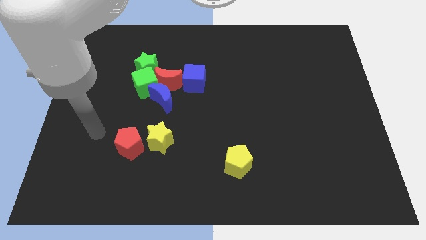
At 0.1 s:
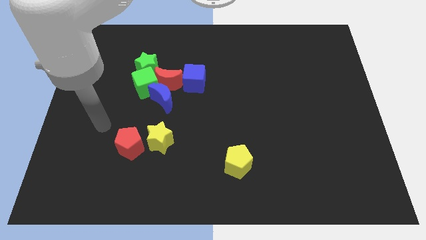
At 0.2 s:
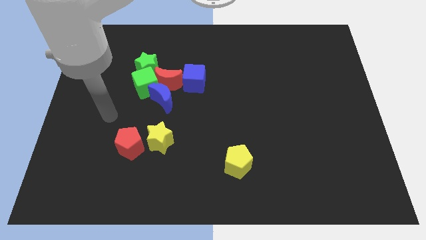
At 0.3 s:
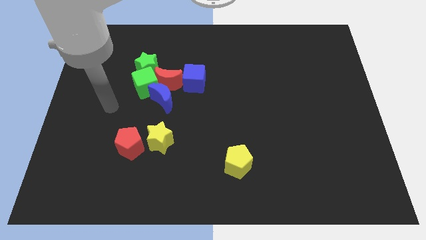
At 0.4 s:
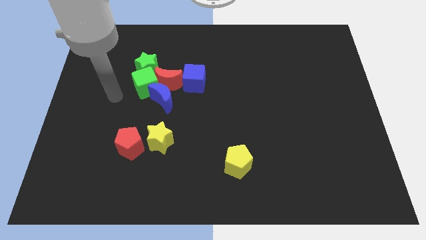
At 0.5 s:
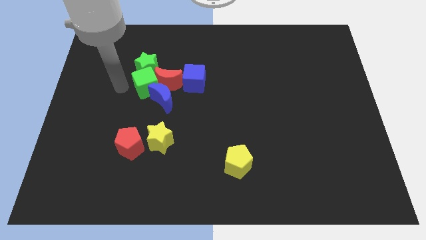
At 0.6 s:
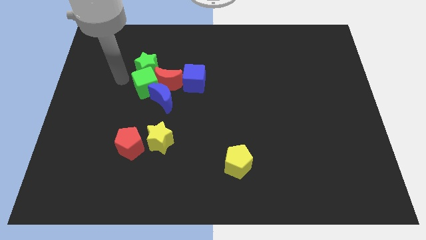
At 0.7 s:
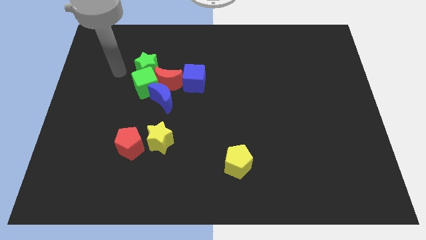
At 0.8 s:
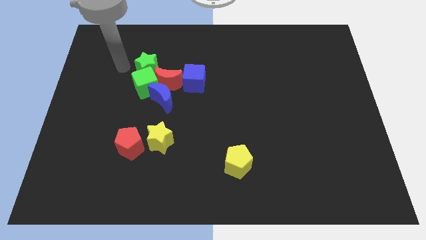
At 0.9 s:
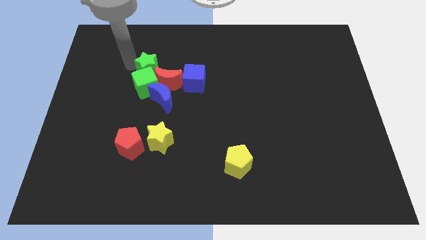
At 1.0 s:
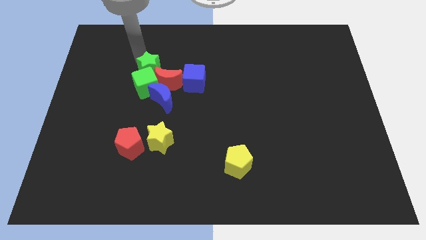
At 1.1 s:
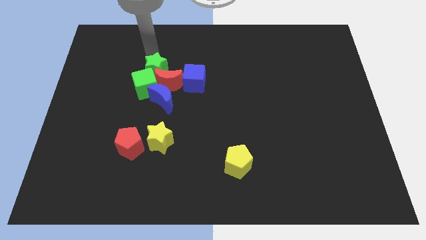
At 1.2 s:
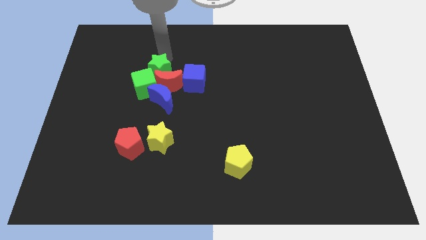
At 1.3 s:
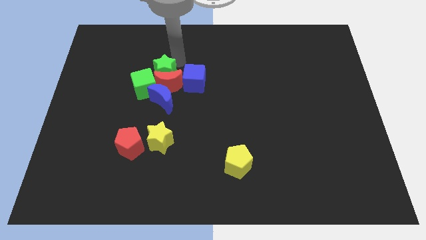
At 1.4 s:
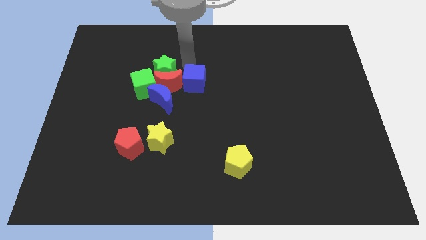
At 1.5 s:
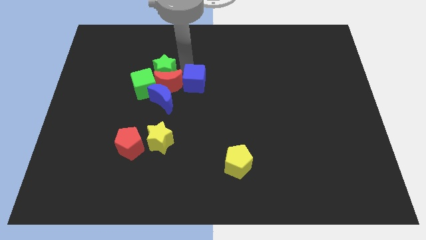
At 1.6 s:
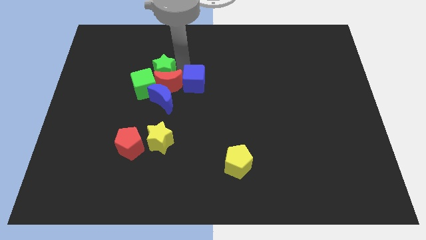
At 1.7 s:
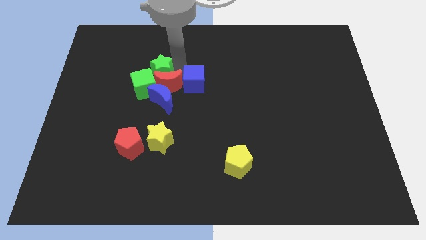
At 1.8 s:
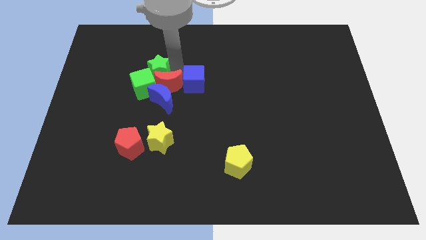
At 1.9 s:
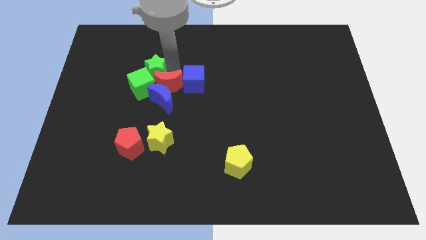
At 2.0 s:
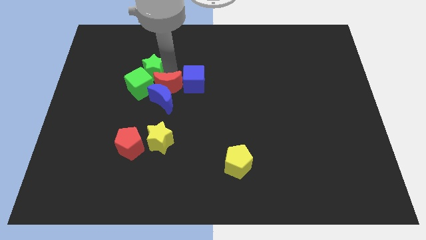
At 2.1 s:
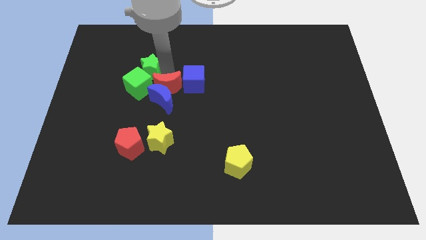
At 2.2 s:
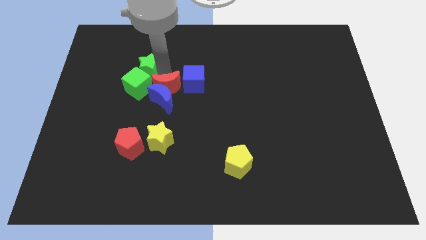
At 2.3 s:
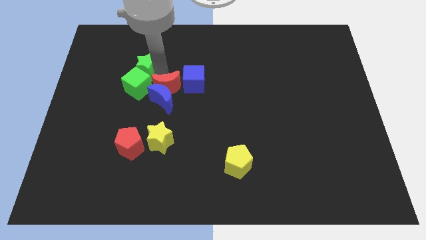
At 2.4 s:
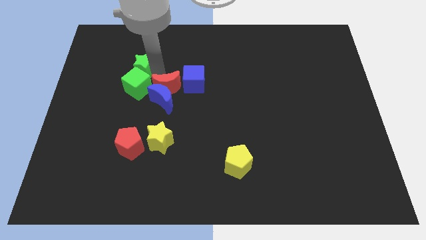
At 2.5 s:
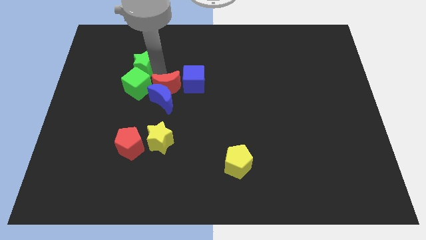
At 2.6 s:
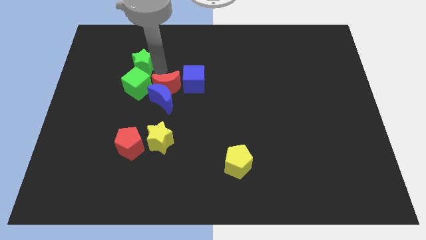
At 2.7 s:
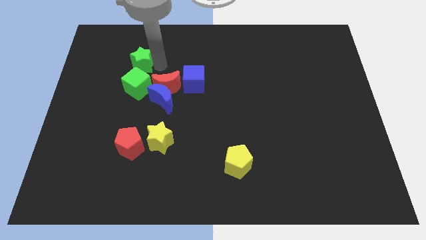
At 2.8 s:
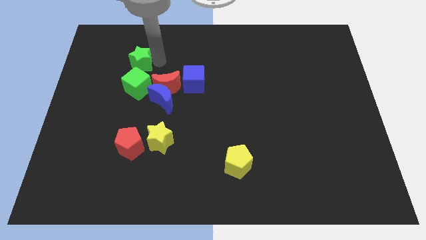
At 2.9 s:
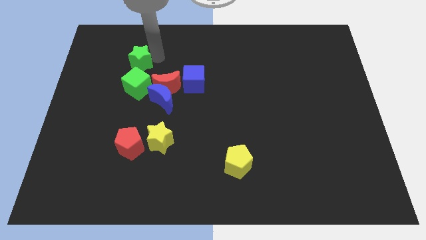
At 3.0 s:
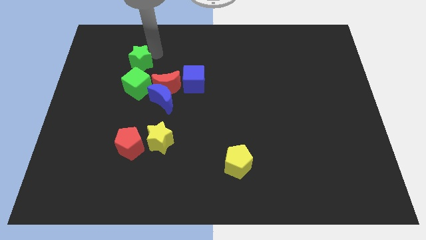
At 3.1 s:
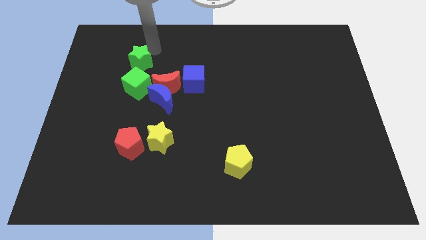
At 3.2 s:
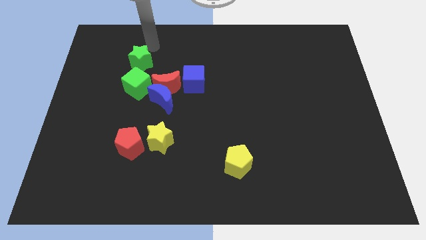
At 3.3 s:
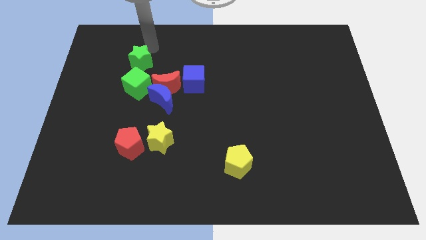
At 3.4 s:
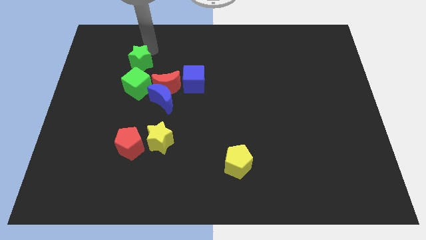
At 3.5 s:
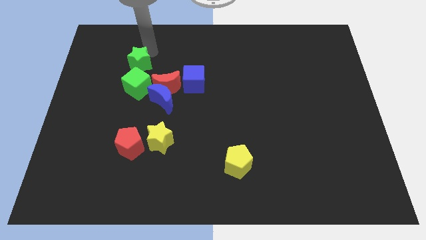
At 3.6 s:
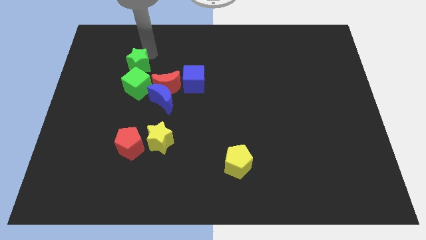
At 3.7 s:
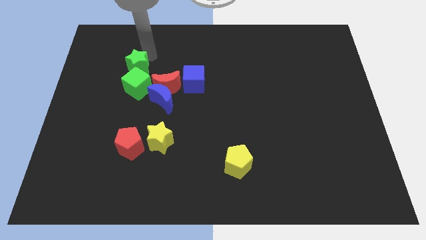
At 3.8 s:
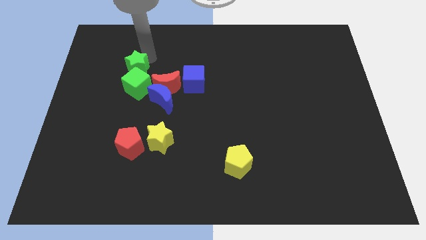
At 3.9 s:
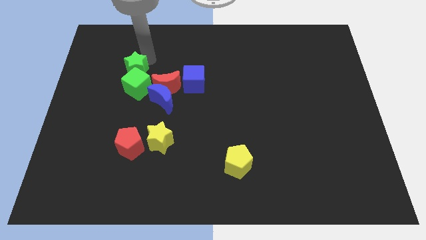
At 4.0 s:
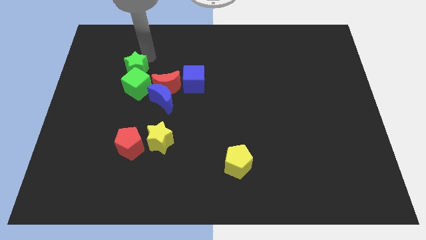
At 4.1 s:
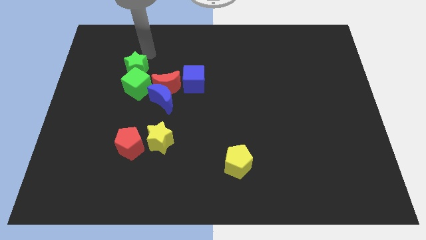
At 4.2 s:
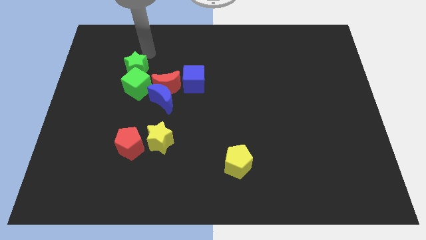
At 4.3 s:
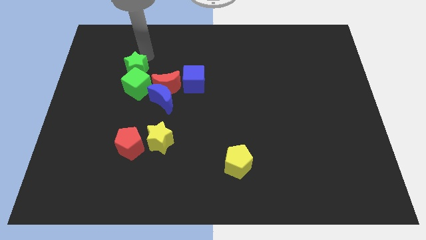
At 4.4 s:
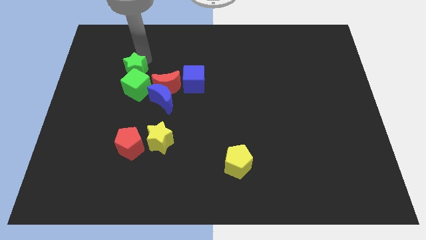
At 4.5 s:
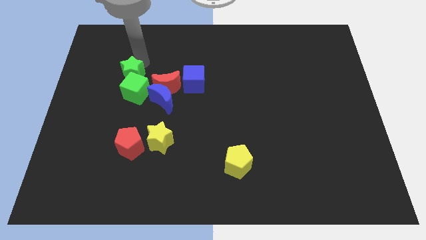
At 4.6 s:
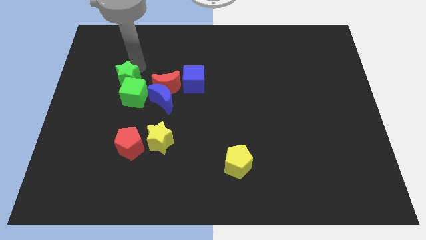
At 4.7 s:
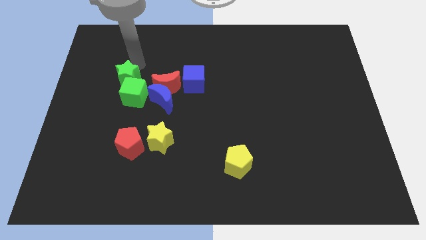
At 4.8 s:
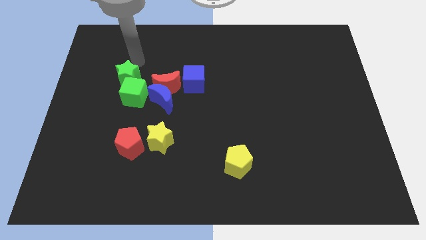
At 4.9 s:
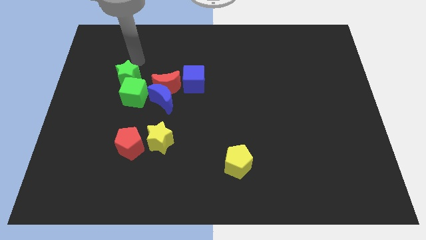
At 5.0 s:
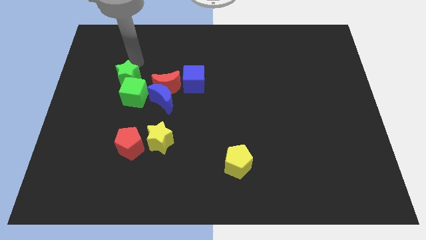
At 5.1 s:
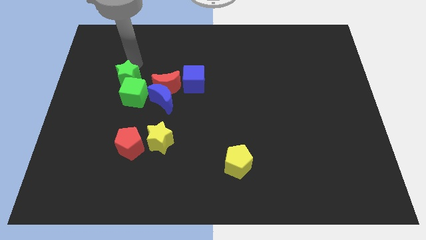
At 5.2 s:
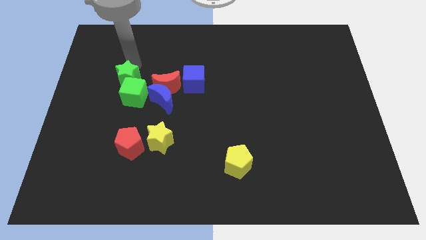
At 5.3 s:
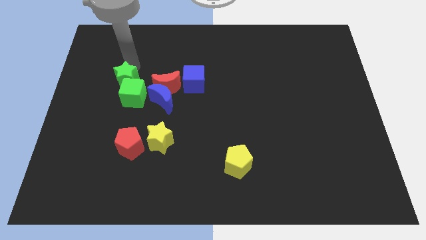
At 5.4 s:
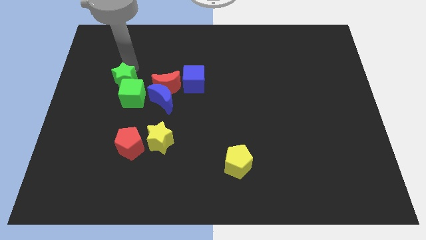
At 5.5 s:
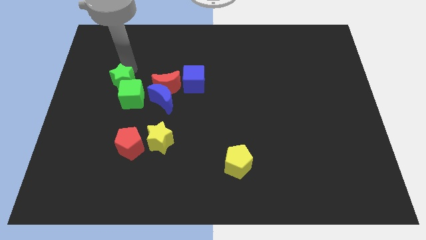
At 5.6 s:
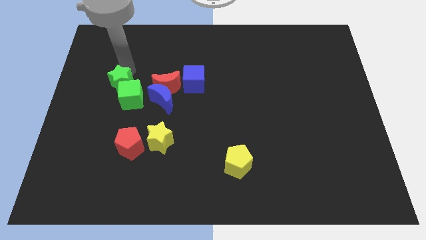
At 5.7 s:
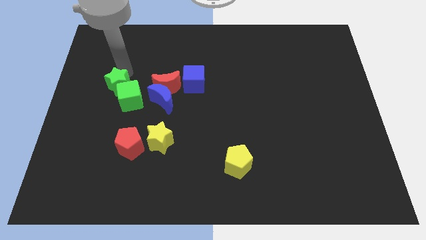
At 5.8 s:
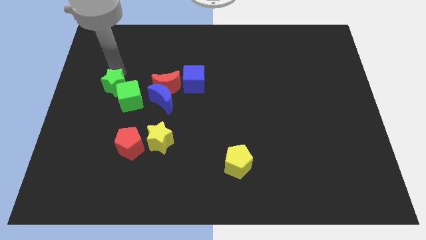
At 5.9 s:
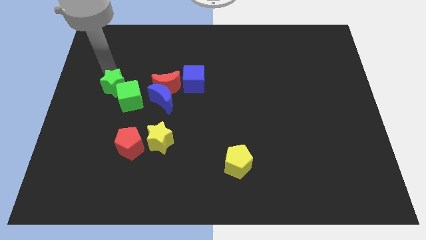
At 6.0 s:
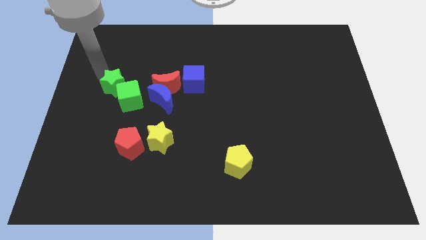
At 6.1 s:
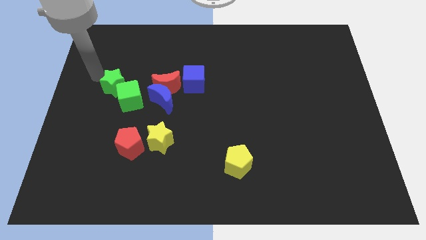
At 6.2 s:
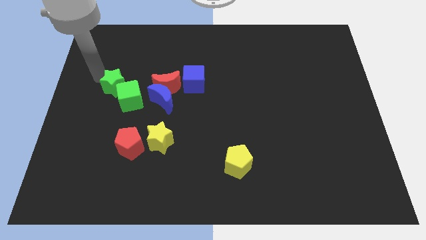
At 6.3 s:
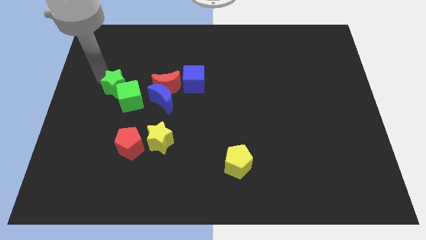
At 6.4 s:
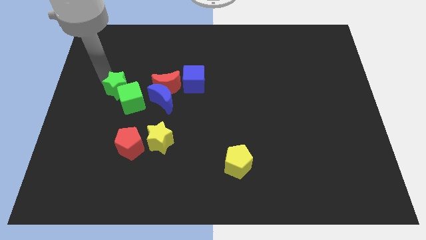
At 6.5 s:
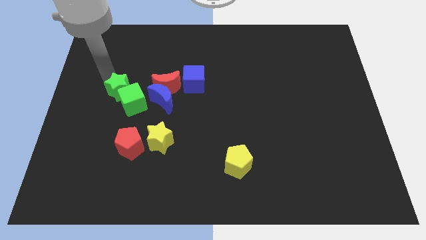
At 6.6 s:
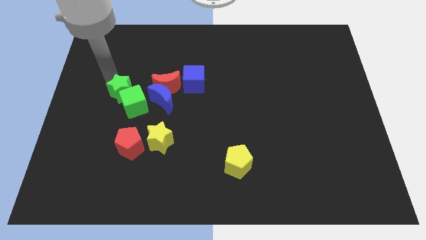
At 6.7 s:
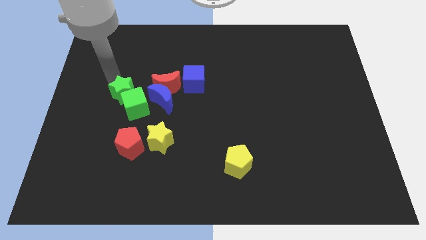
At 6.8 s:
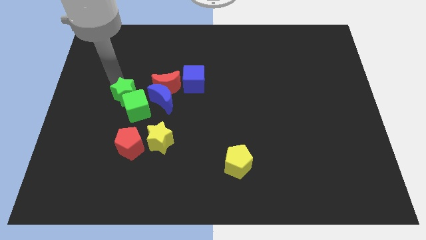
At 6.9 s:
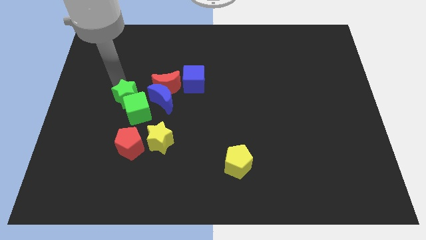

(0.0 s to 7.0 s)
slide the green star to the bottom left of the red moon
